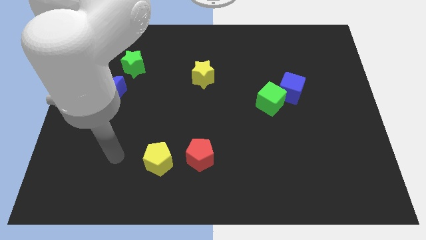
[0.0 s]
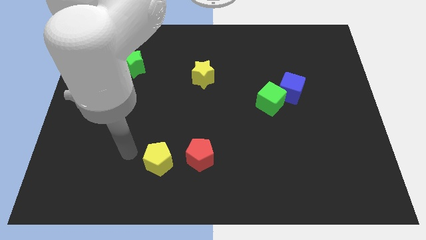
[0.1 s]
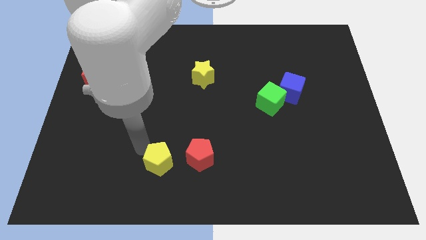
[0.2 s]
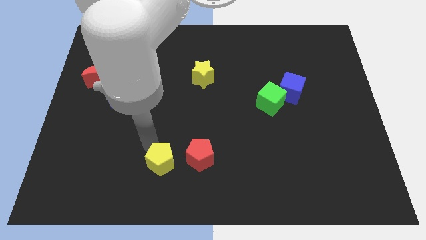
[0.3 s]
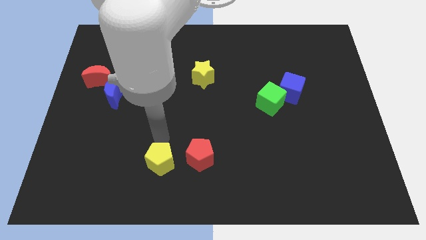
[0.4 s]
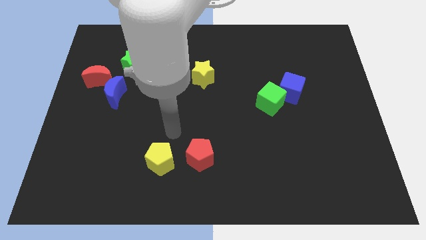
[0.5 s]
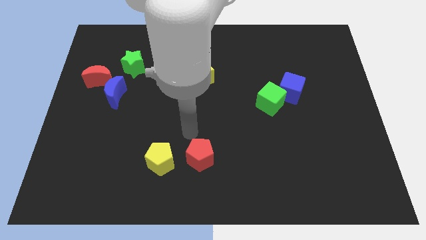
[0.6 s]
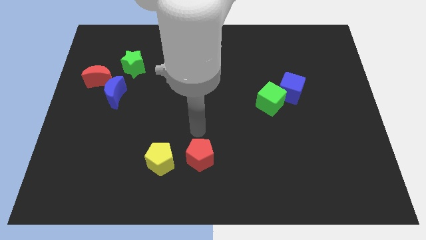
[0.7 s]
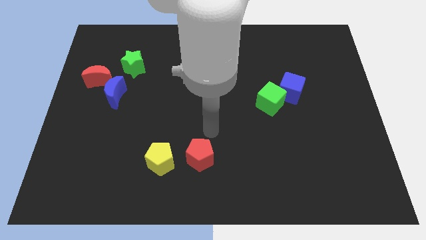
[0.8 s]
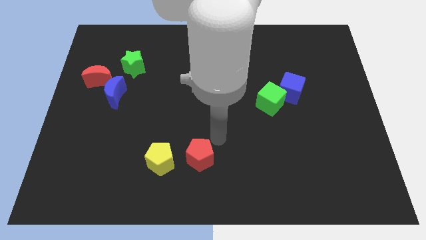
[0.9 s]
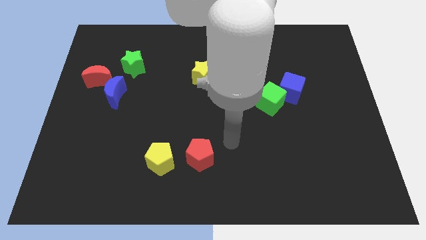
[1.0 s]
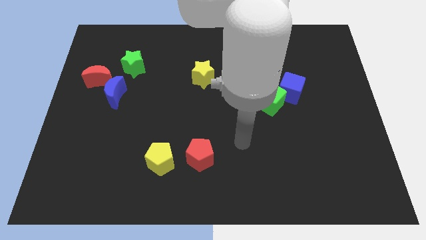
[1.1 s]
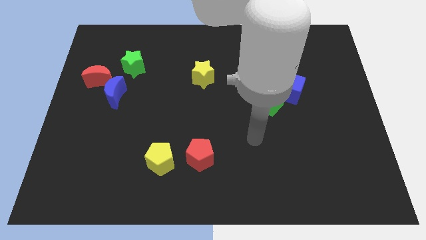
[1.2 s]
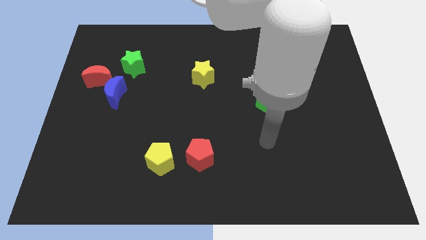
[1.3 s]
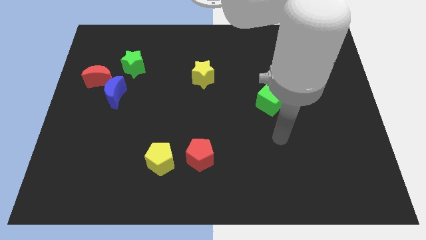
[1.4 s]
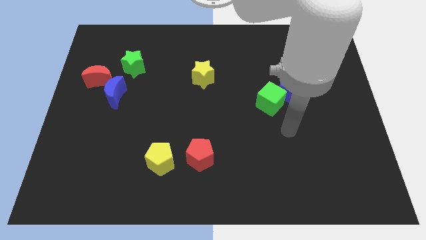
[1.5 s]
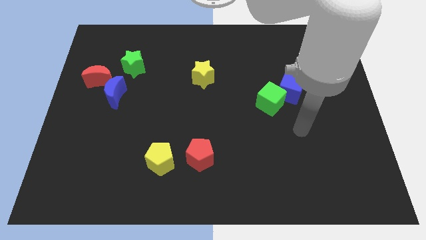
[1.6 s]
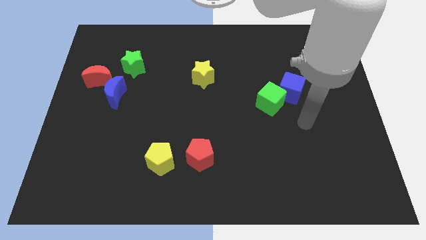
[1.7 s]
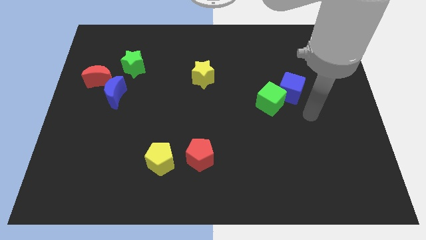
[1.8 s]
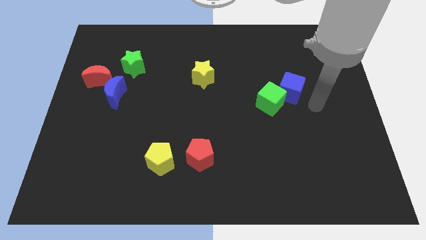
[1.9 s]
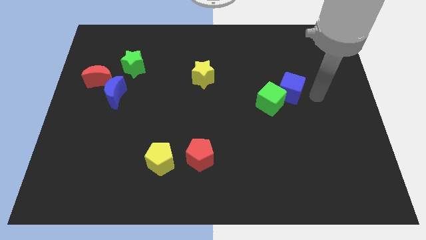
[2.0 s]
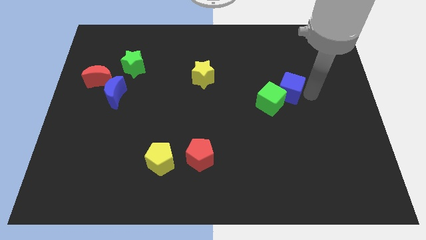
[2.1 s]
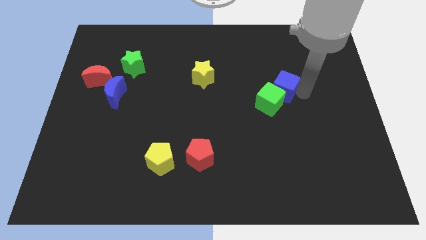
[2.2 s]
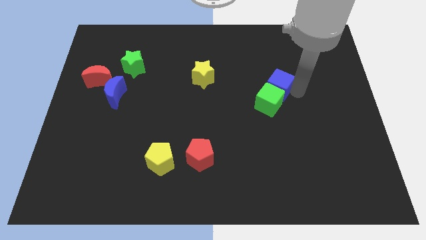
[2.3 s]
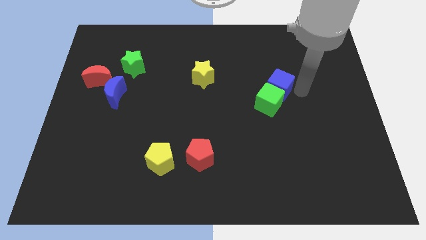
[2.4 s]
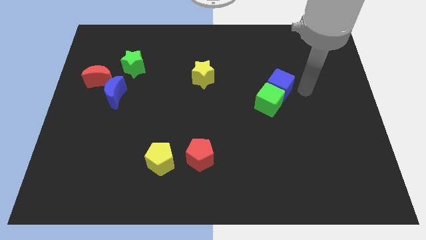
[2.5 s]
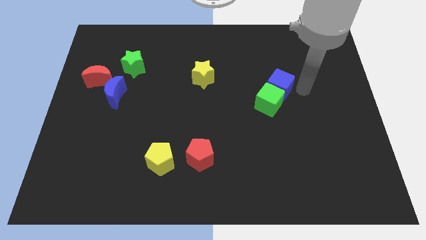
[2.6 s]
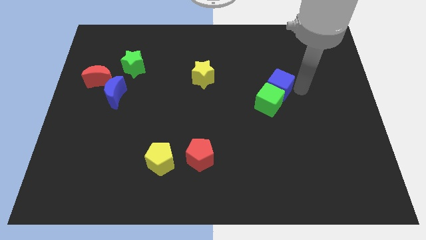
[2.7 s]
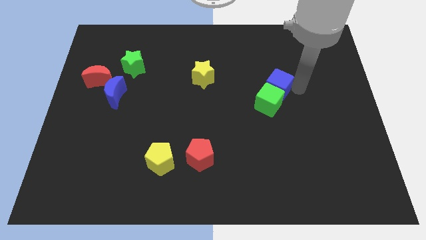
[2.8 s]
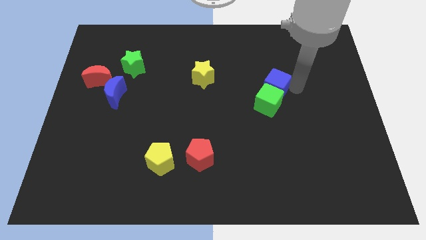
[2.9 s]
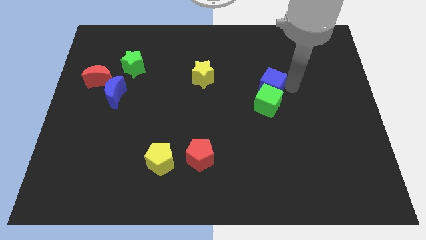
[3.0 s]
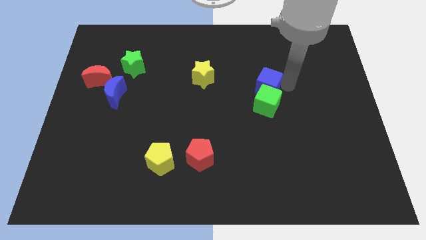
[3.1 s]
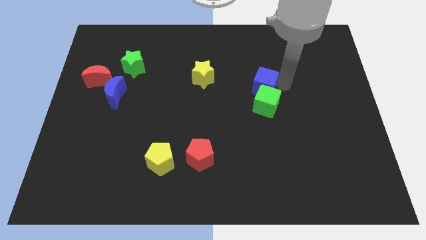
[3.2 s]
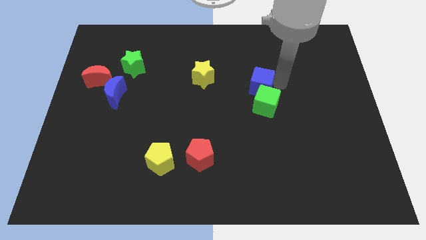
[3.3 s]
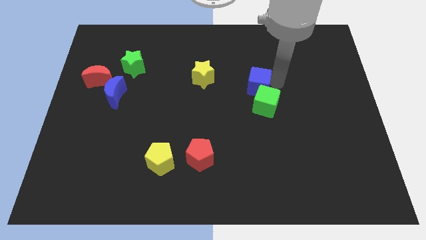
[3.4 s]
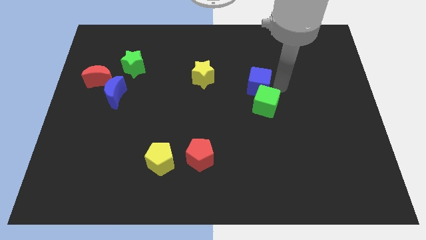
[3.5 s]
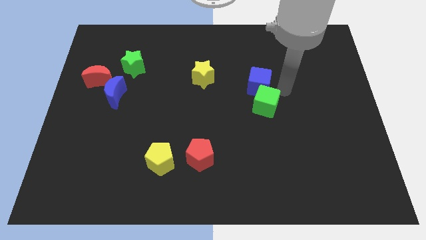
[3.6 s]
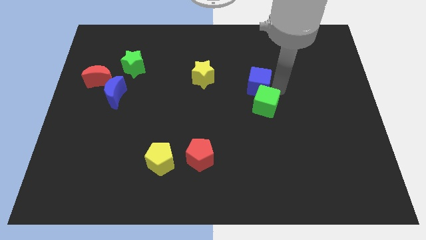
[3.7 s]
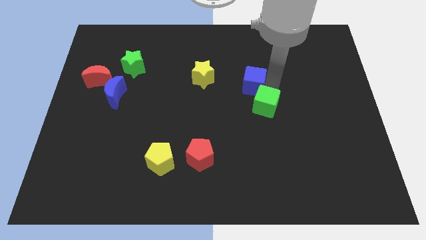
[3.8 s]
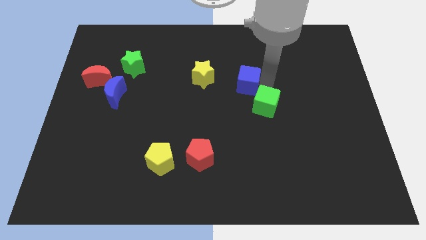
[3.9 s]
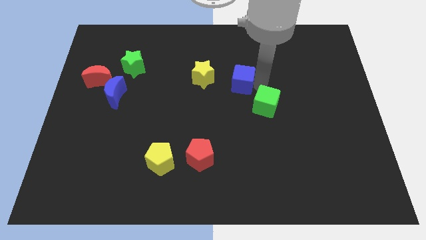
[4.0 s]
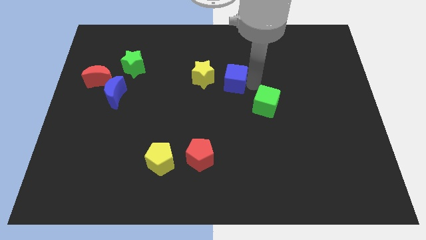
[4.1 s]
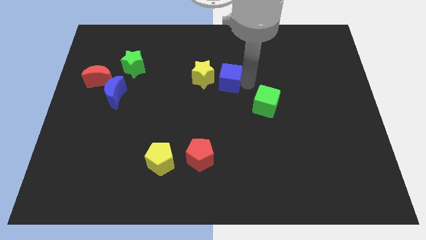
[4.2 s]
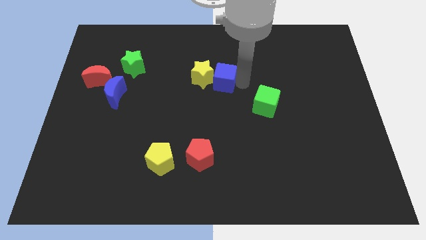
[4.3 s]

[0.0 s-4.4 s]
push the blue cube to the yellow star

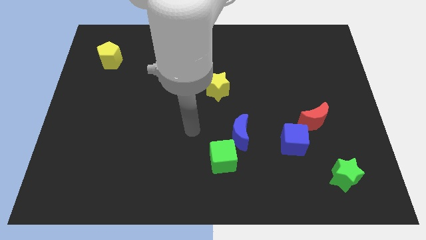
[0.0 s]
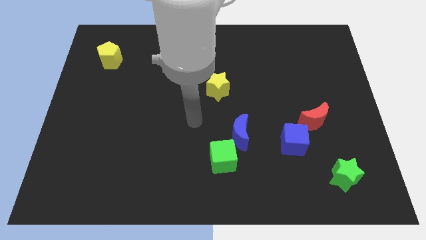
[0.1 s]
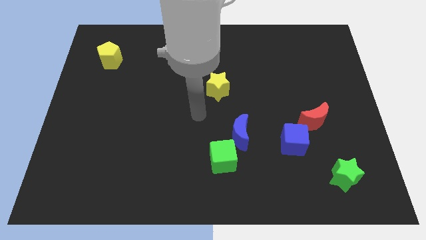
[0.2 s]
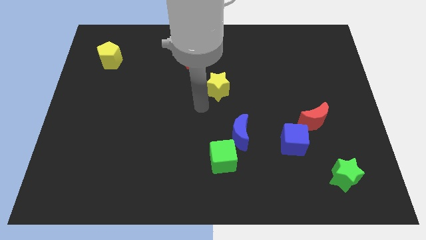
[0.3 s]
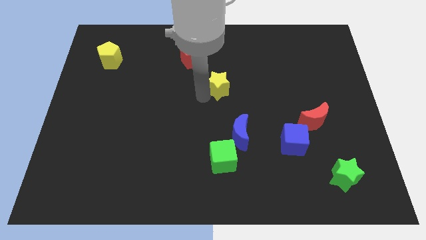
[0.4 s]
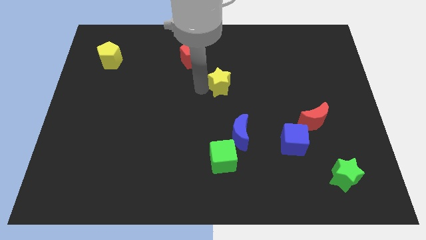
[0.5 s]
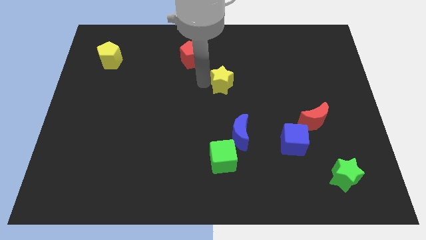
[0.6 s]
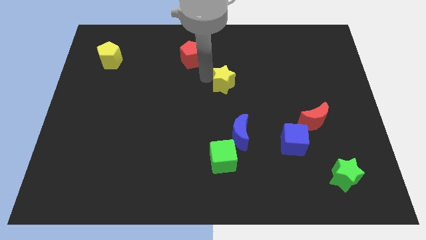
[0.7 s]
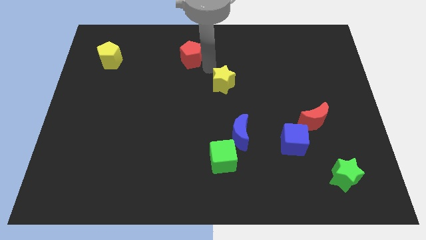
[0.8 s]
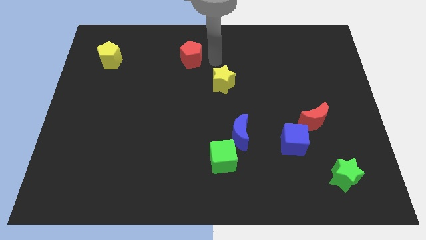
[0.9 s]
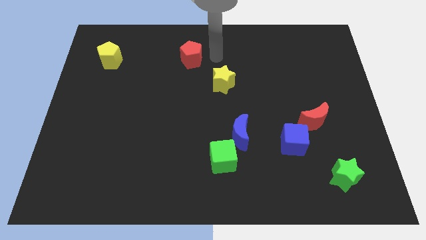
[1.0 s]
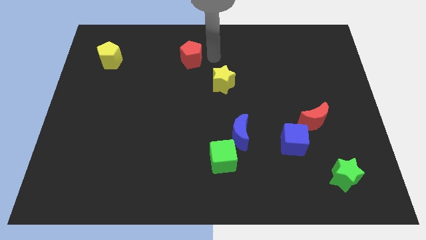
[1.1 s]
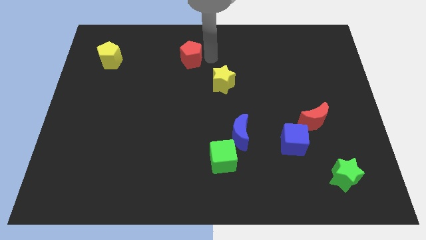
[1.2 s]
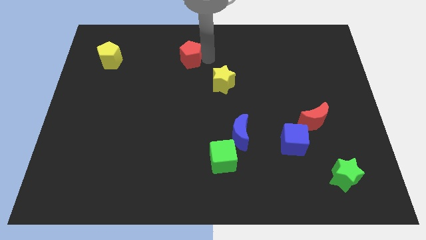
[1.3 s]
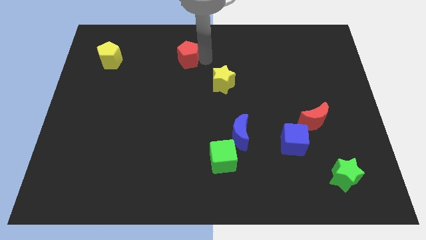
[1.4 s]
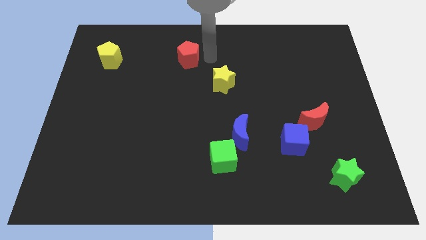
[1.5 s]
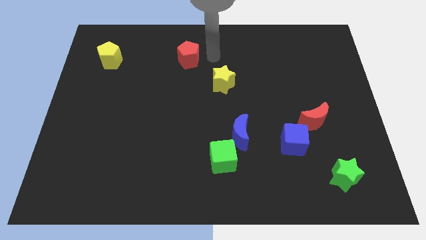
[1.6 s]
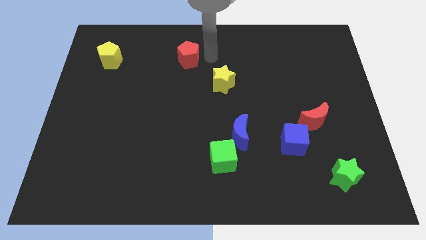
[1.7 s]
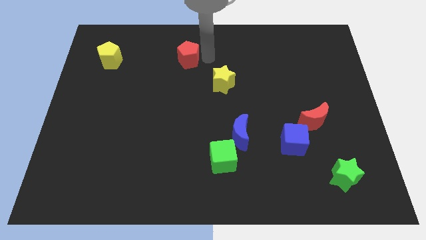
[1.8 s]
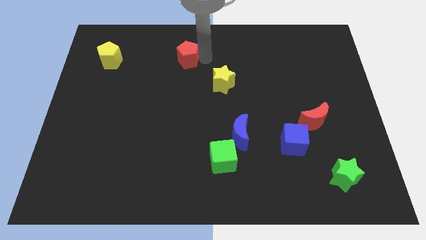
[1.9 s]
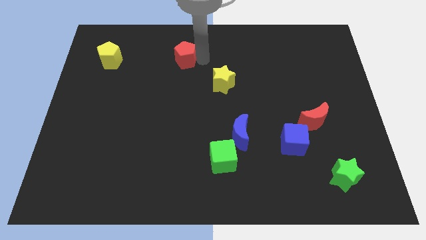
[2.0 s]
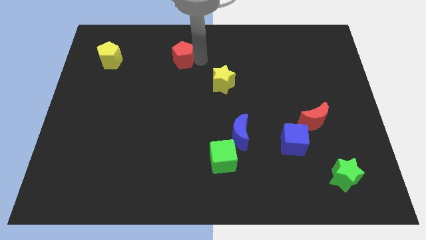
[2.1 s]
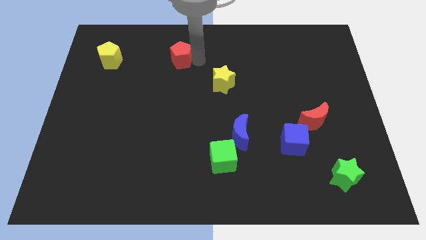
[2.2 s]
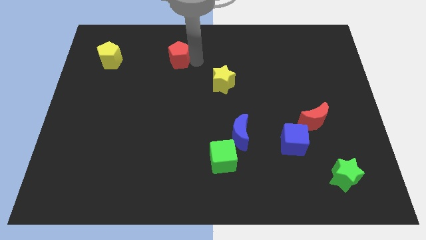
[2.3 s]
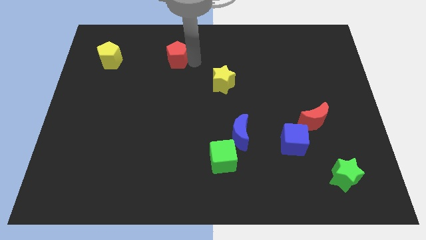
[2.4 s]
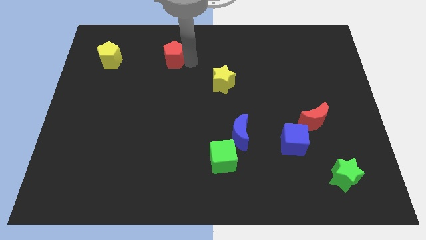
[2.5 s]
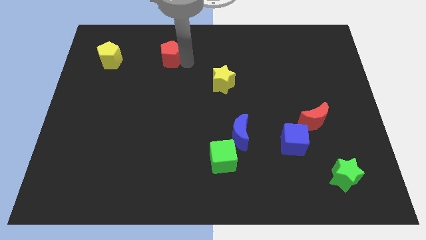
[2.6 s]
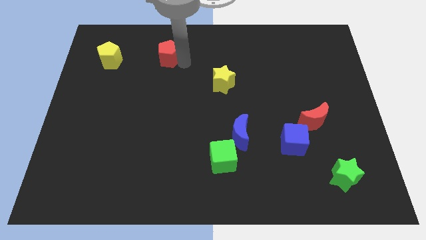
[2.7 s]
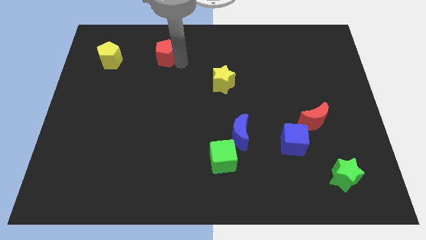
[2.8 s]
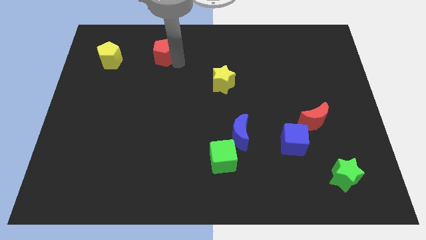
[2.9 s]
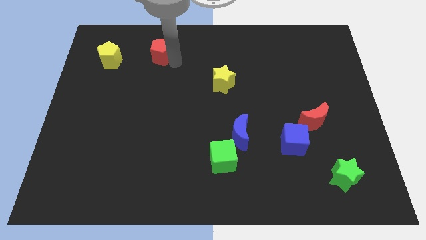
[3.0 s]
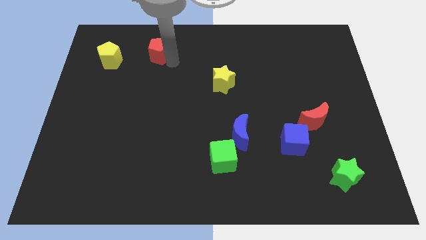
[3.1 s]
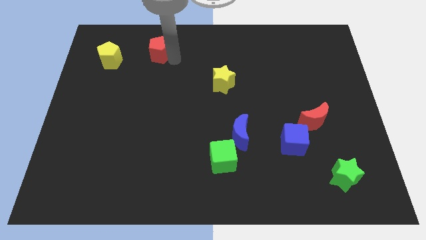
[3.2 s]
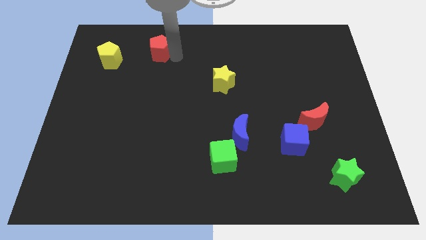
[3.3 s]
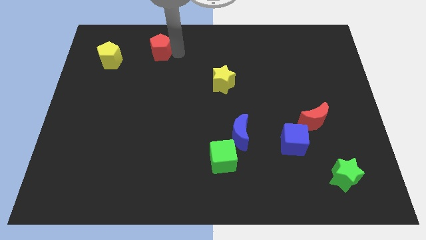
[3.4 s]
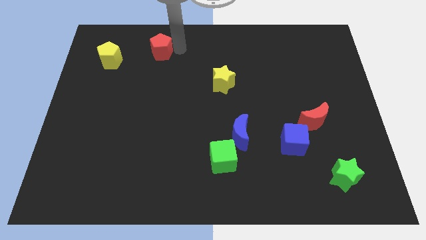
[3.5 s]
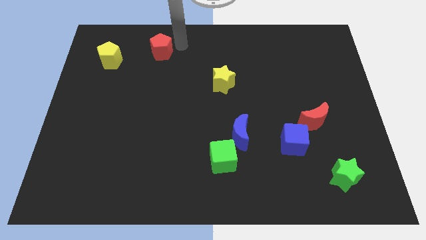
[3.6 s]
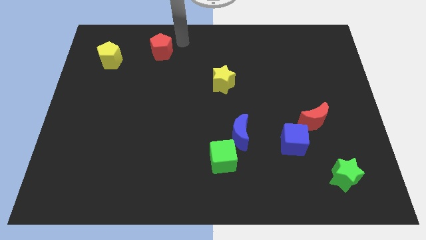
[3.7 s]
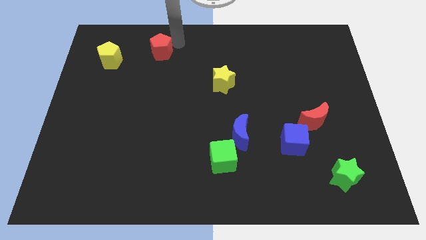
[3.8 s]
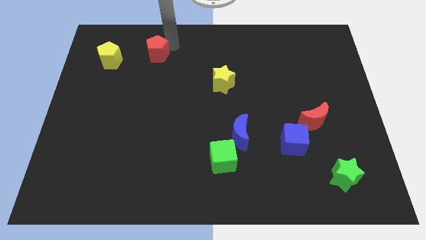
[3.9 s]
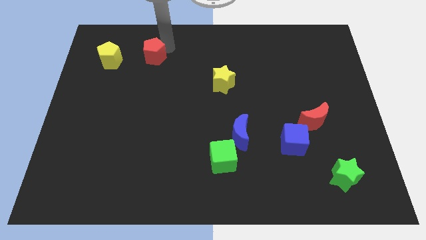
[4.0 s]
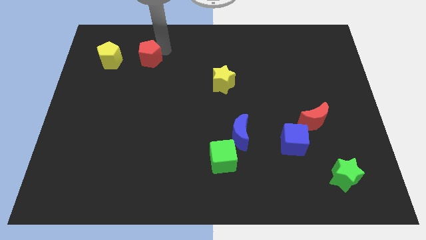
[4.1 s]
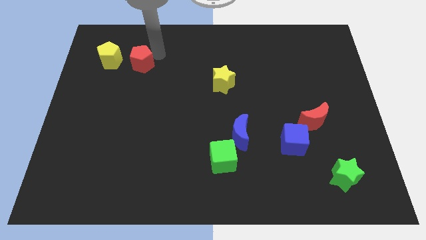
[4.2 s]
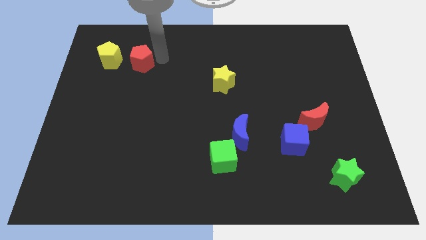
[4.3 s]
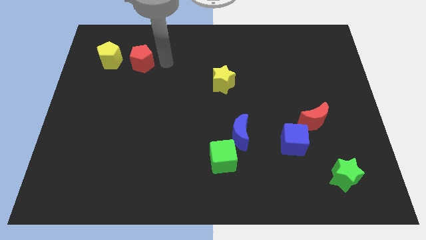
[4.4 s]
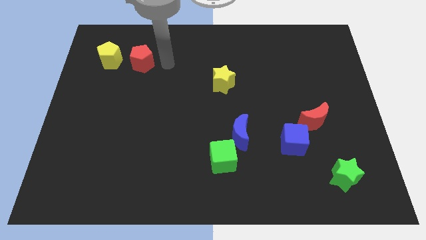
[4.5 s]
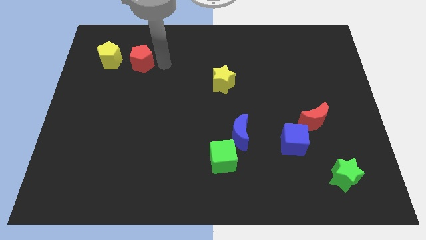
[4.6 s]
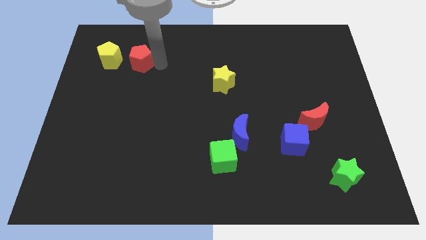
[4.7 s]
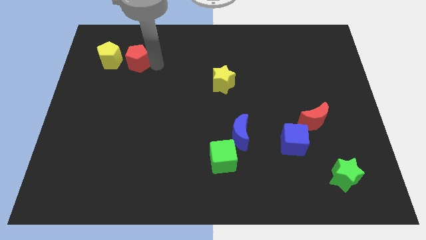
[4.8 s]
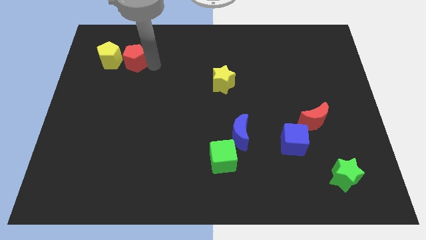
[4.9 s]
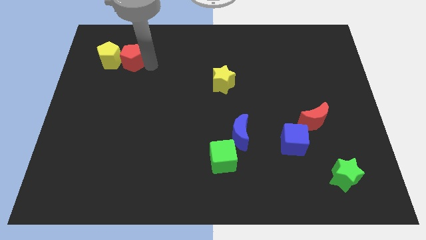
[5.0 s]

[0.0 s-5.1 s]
push the red pentagon close to the yellow pentagon
